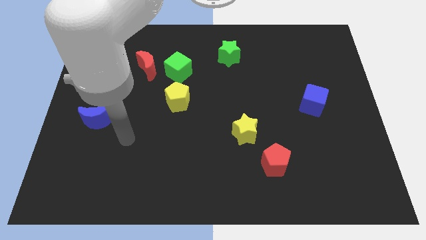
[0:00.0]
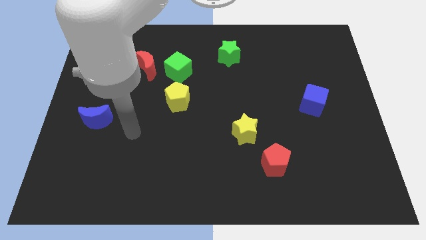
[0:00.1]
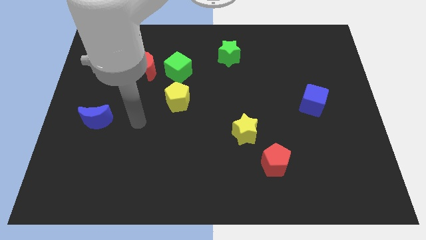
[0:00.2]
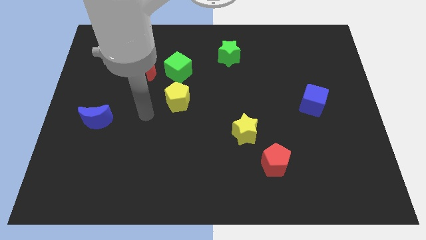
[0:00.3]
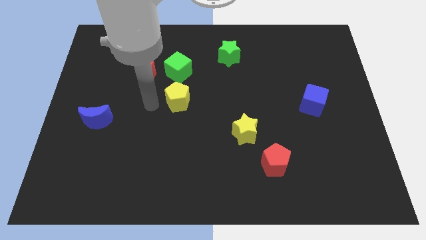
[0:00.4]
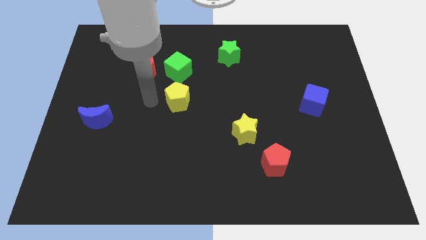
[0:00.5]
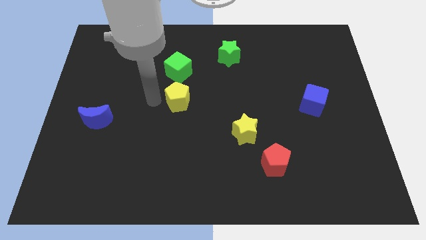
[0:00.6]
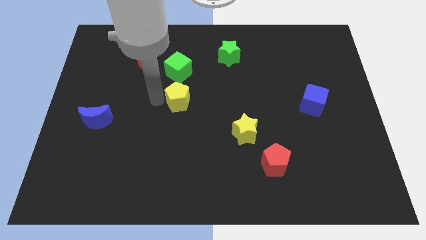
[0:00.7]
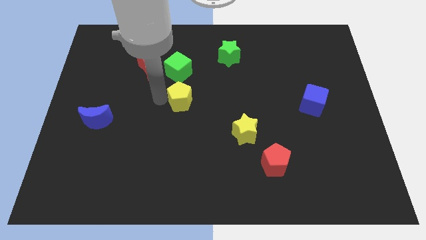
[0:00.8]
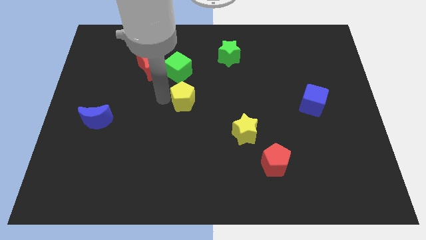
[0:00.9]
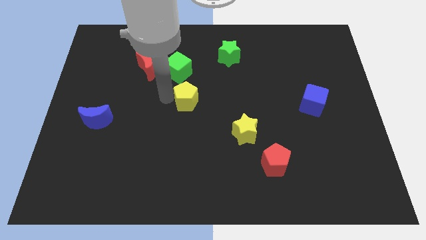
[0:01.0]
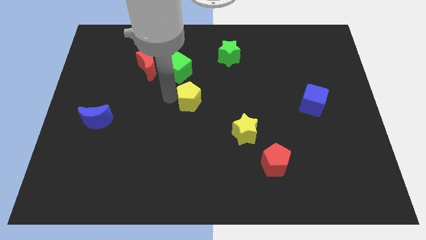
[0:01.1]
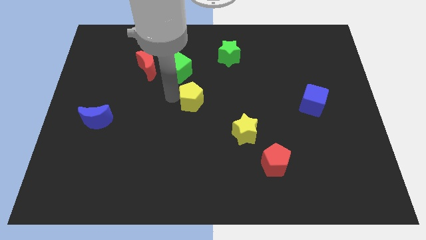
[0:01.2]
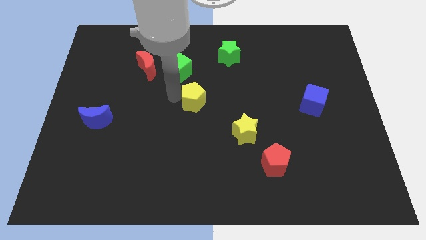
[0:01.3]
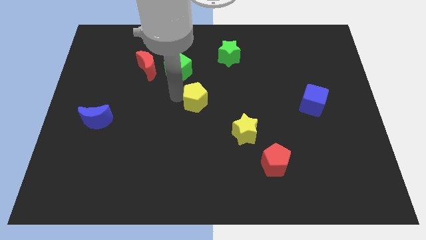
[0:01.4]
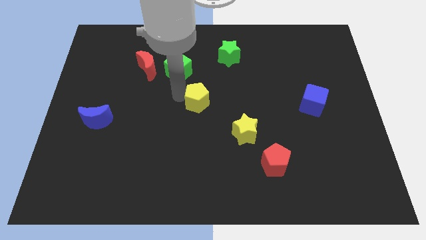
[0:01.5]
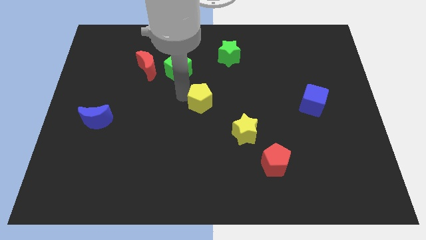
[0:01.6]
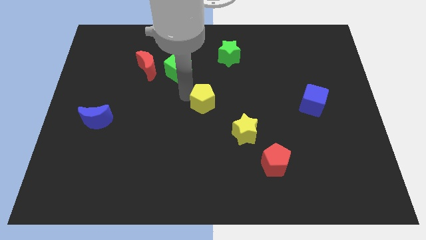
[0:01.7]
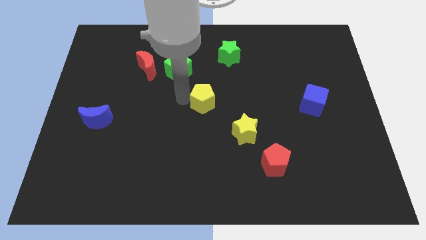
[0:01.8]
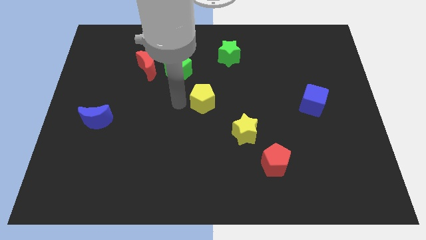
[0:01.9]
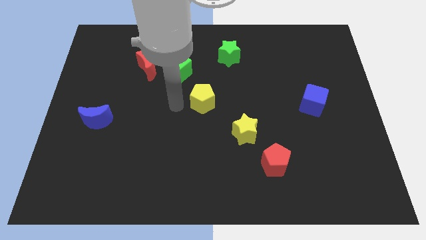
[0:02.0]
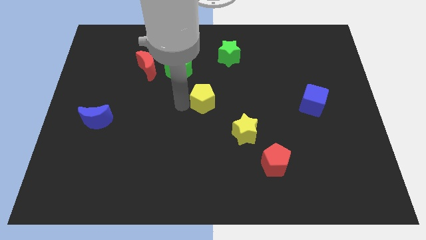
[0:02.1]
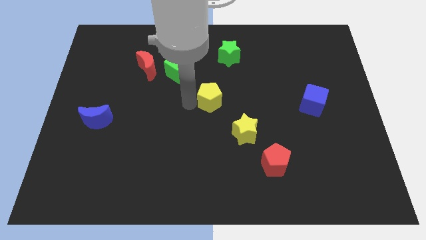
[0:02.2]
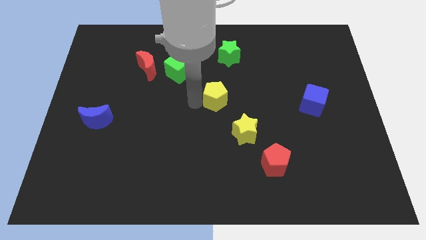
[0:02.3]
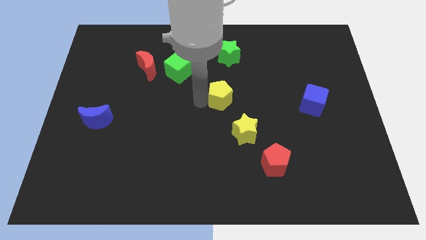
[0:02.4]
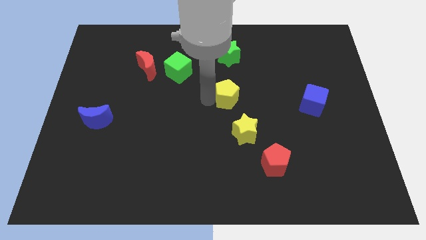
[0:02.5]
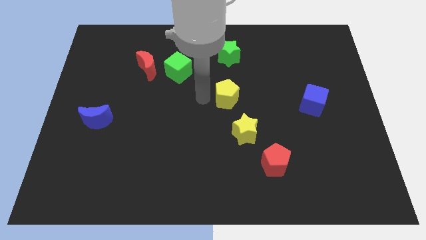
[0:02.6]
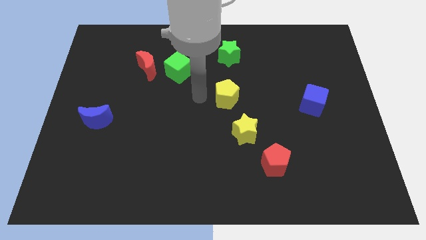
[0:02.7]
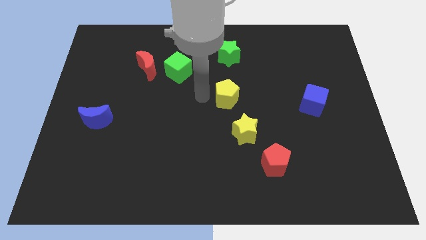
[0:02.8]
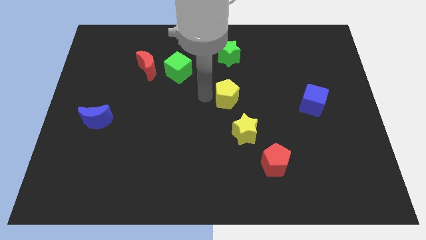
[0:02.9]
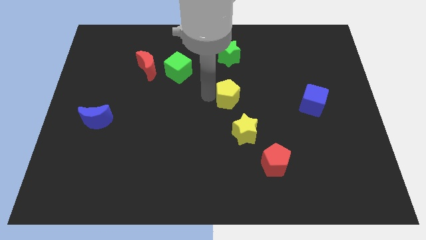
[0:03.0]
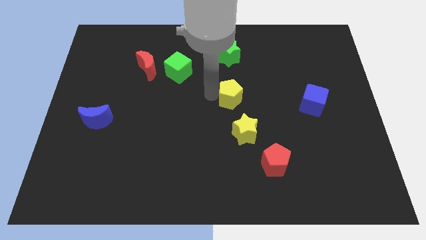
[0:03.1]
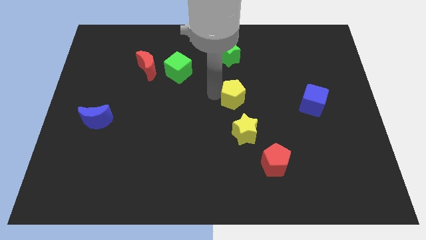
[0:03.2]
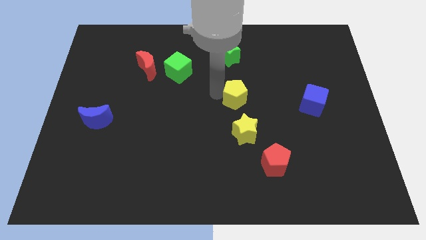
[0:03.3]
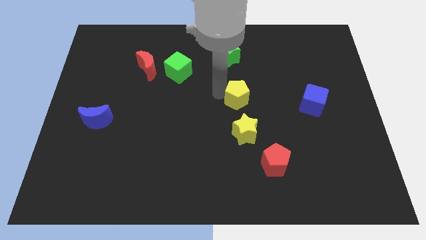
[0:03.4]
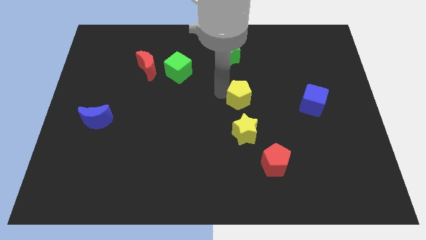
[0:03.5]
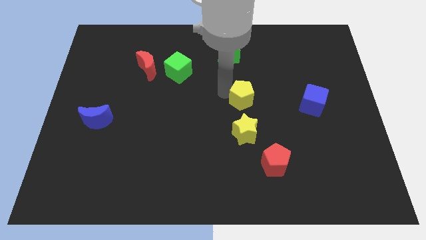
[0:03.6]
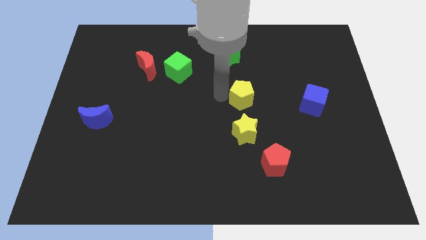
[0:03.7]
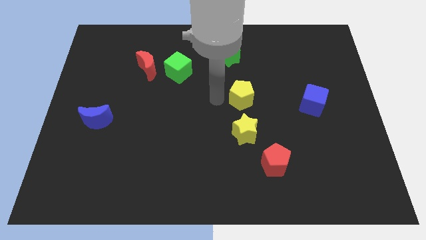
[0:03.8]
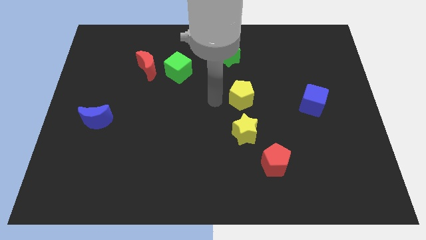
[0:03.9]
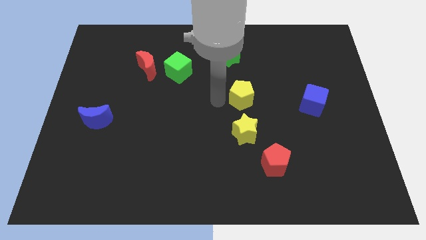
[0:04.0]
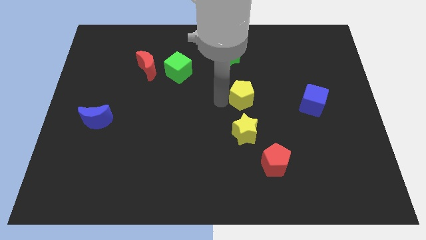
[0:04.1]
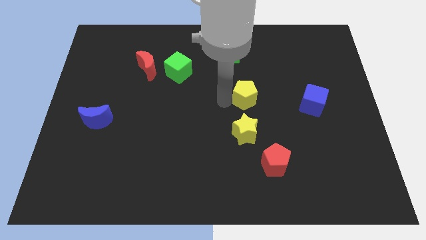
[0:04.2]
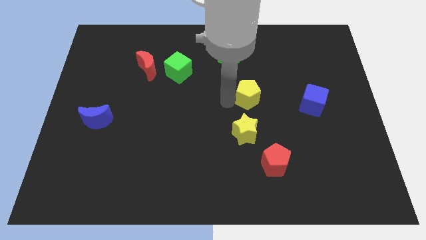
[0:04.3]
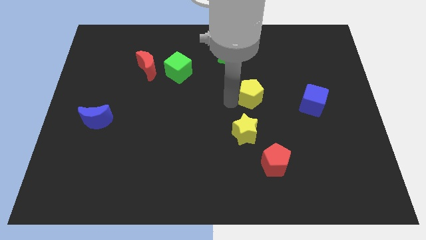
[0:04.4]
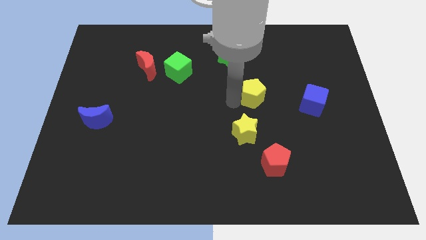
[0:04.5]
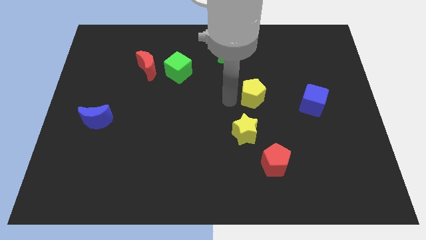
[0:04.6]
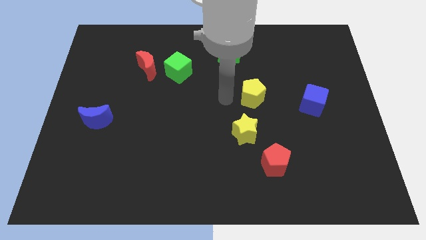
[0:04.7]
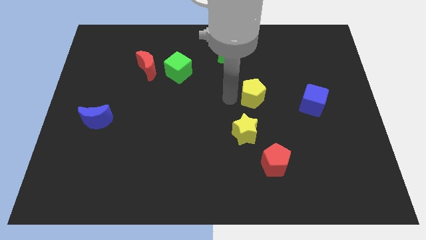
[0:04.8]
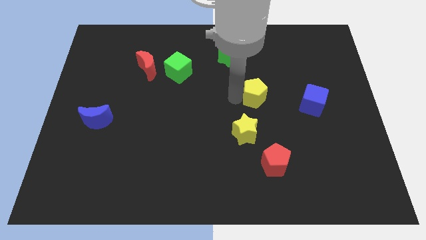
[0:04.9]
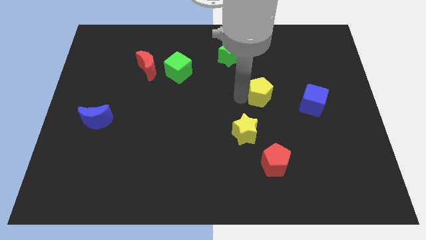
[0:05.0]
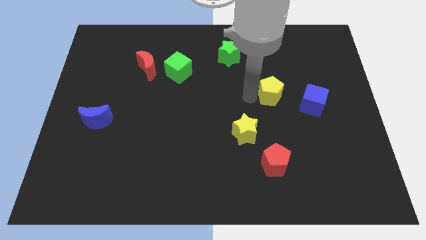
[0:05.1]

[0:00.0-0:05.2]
slide the yellow pentagon diagonally up and to the left of the blue cube

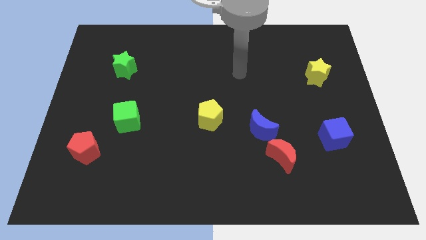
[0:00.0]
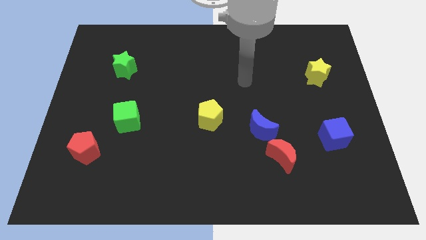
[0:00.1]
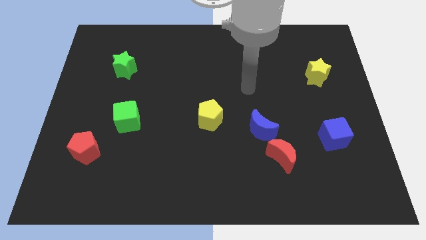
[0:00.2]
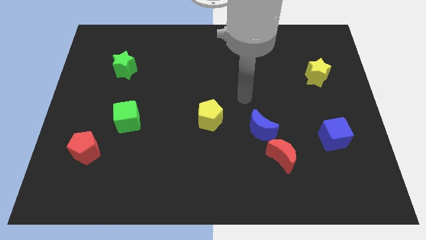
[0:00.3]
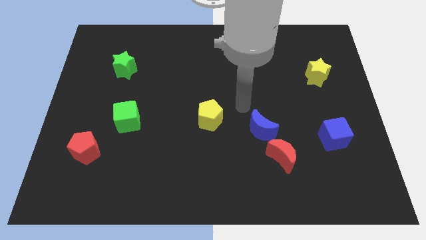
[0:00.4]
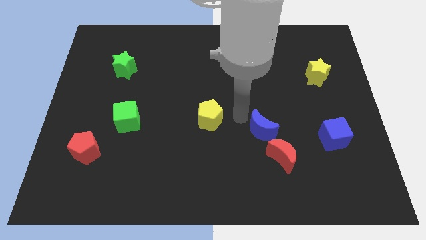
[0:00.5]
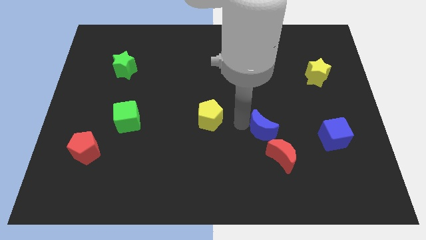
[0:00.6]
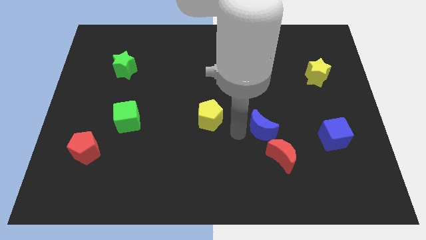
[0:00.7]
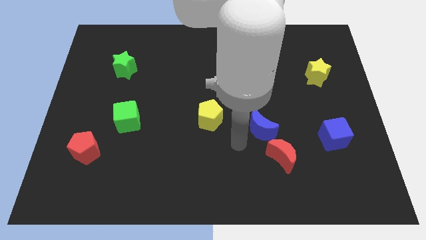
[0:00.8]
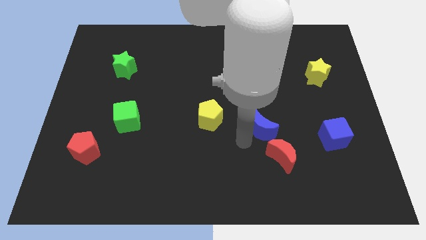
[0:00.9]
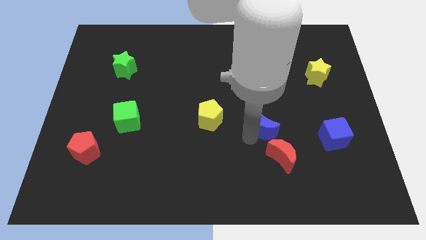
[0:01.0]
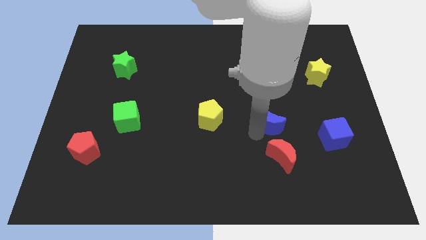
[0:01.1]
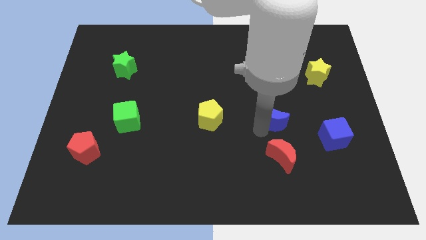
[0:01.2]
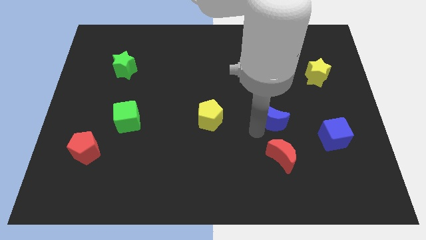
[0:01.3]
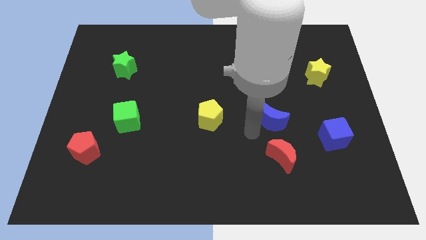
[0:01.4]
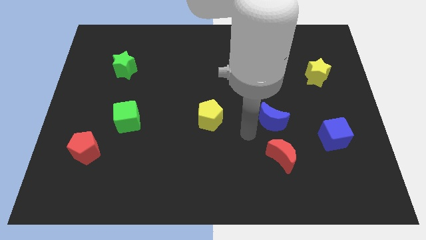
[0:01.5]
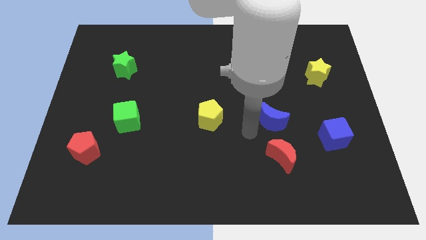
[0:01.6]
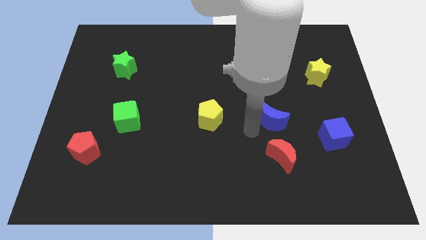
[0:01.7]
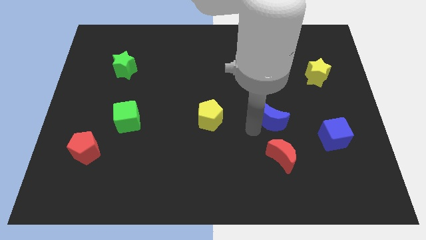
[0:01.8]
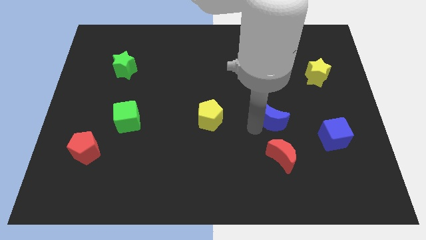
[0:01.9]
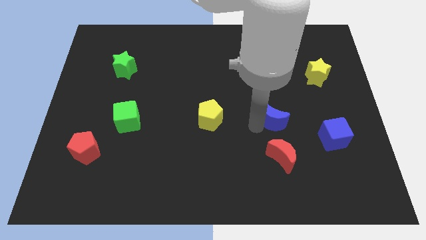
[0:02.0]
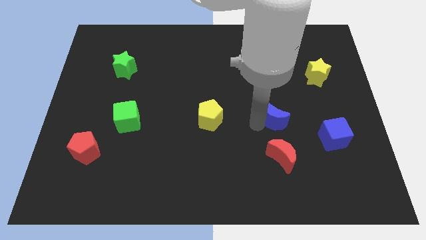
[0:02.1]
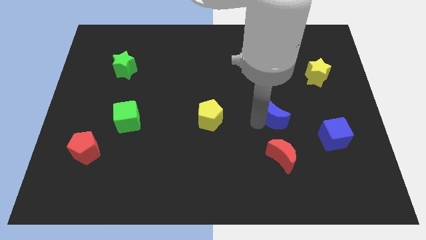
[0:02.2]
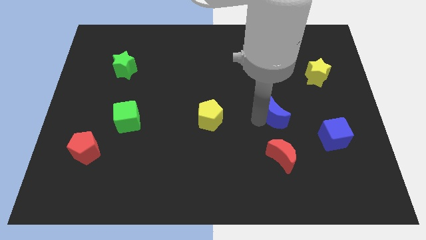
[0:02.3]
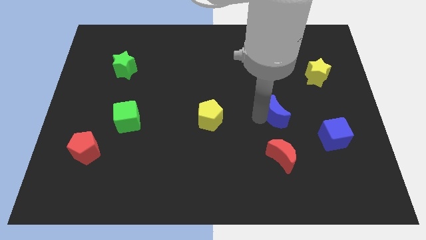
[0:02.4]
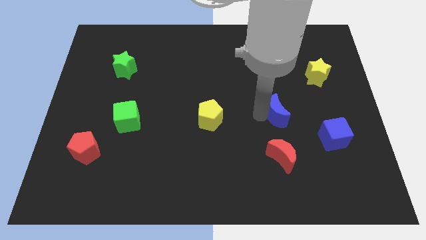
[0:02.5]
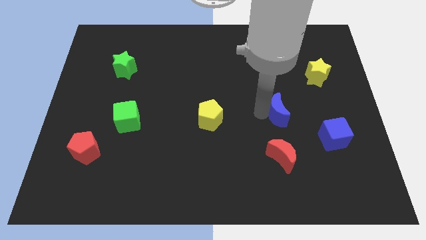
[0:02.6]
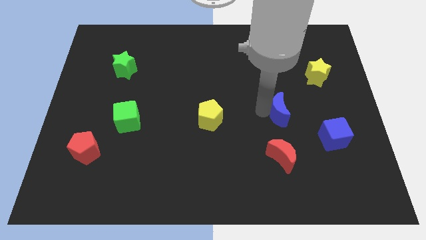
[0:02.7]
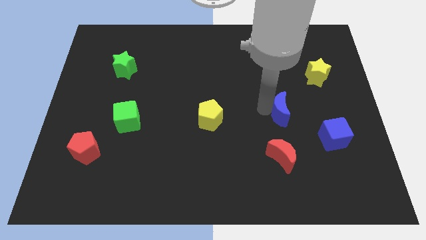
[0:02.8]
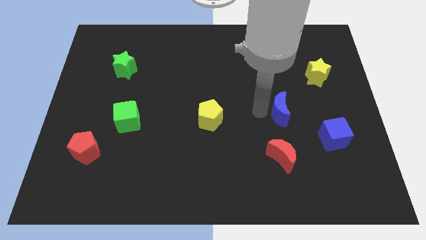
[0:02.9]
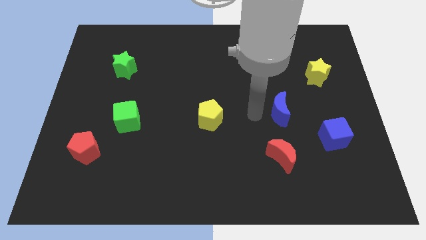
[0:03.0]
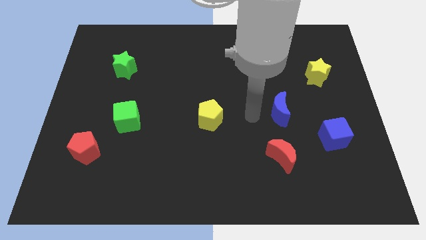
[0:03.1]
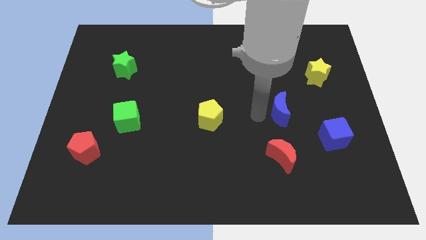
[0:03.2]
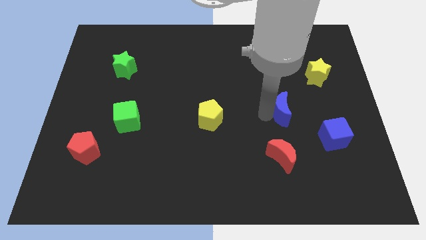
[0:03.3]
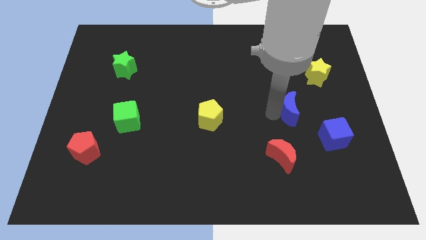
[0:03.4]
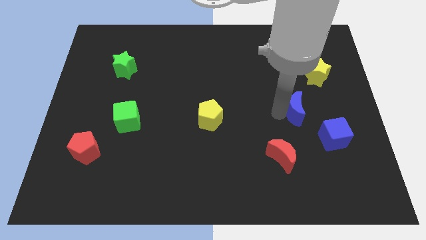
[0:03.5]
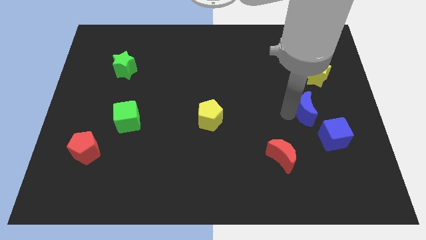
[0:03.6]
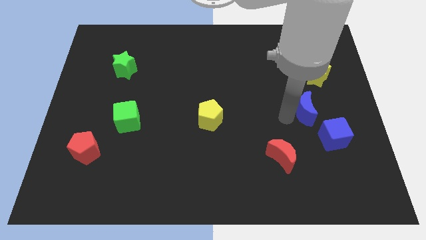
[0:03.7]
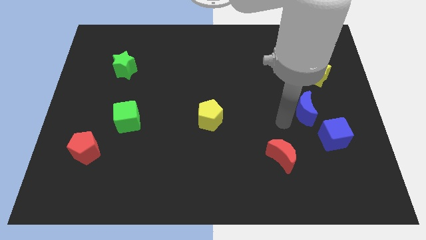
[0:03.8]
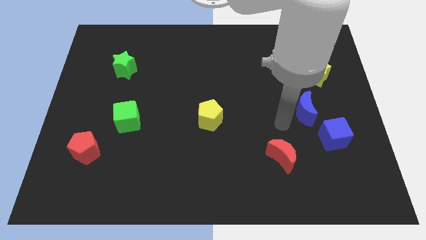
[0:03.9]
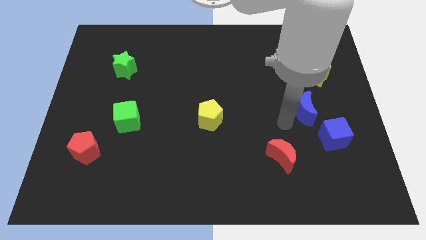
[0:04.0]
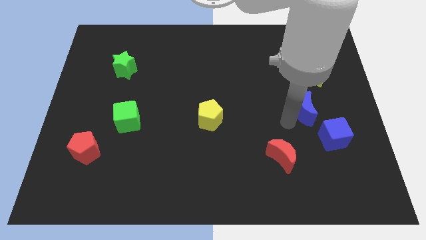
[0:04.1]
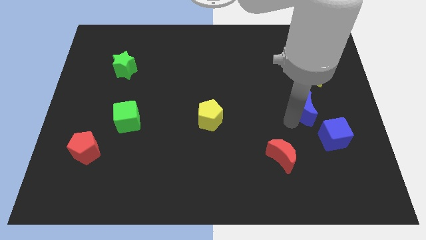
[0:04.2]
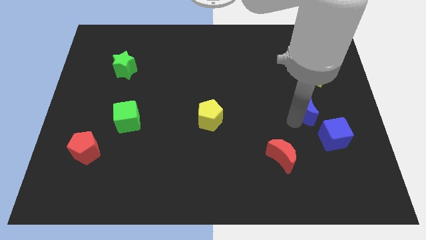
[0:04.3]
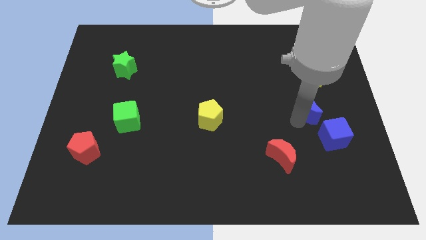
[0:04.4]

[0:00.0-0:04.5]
move the blue moon to the top side of the blue cube
